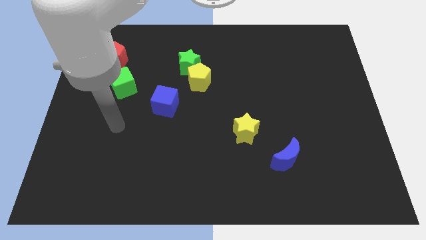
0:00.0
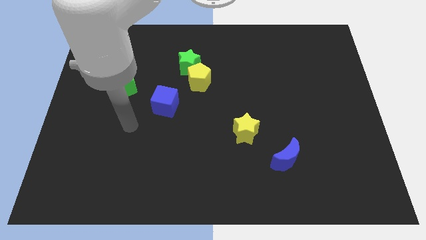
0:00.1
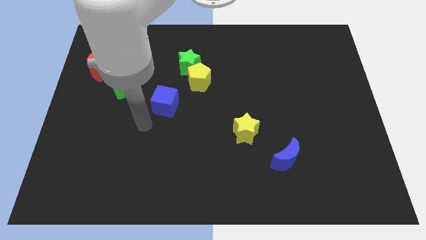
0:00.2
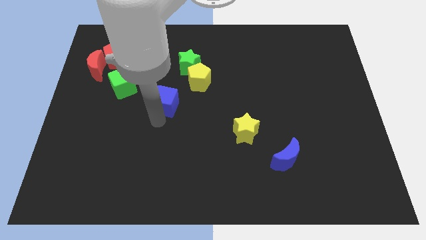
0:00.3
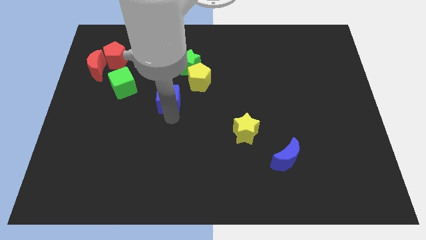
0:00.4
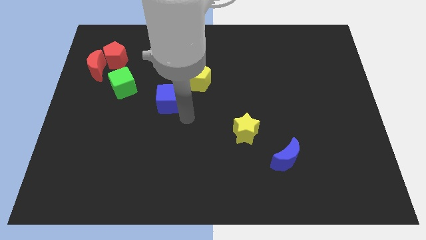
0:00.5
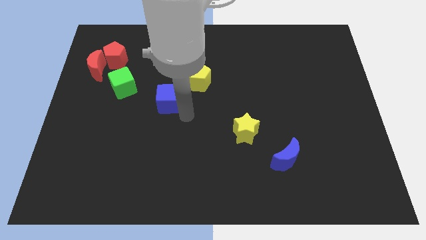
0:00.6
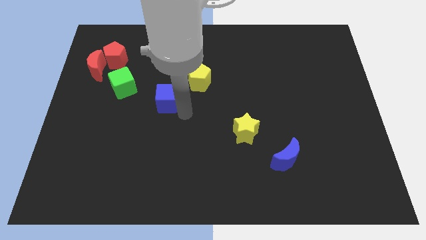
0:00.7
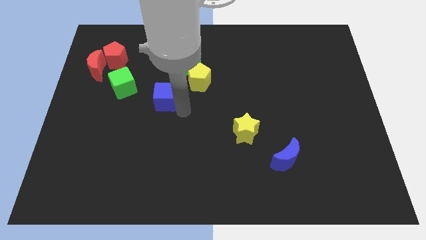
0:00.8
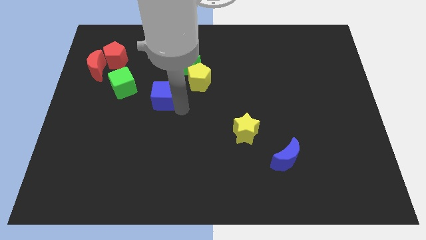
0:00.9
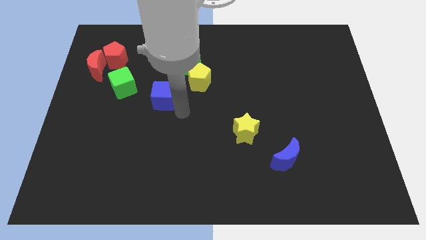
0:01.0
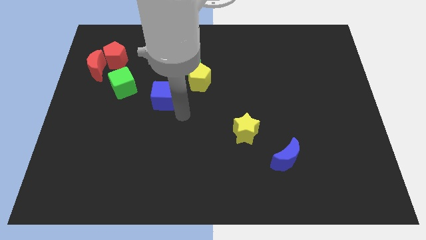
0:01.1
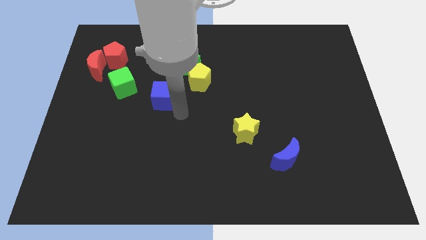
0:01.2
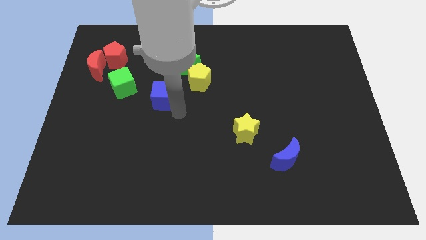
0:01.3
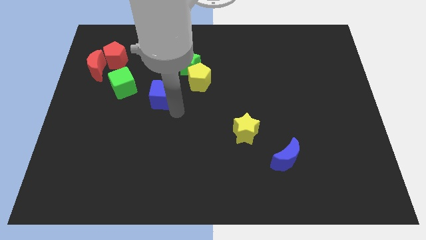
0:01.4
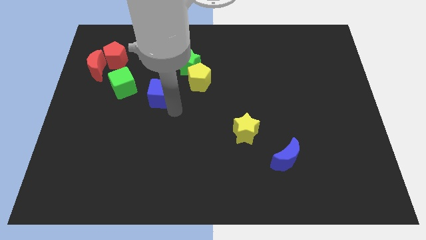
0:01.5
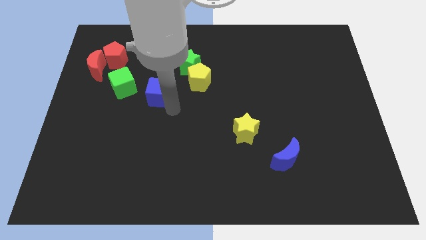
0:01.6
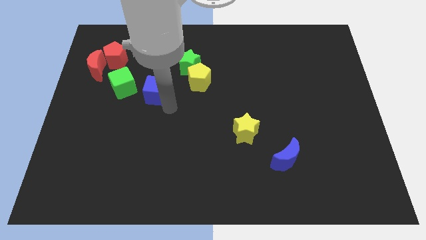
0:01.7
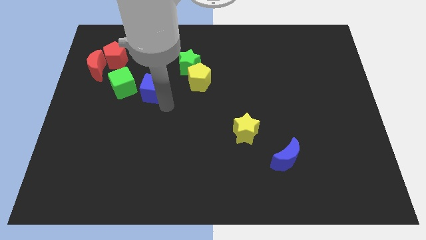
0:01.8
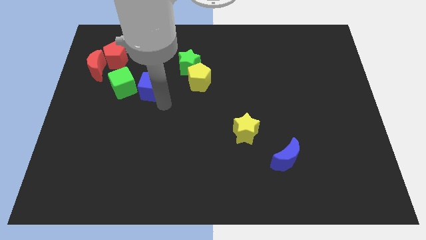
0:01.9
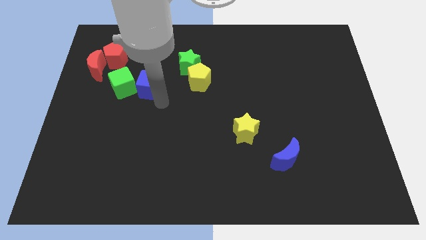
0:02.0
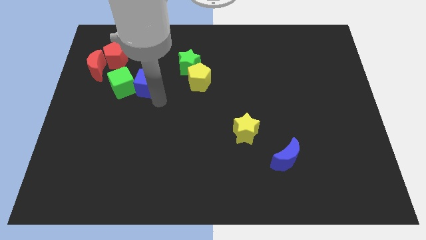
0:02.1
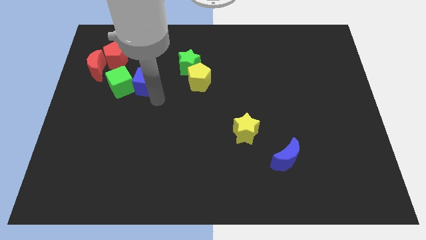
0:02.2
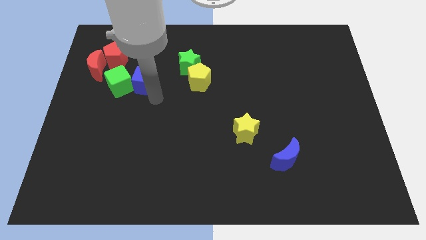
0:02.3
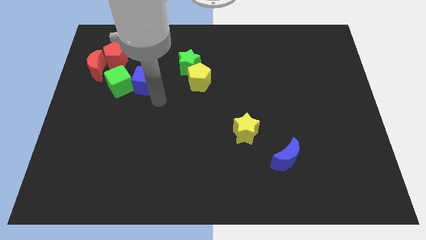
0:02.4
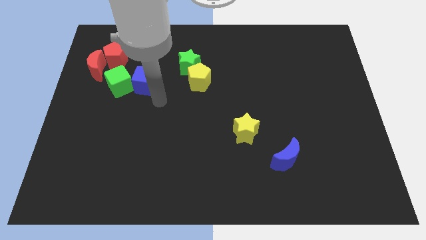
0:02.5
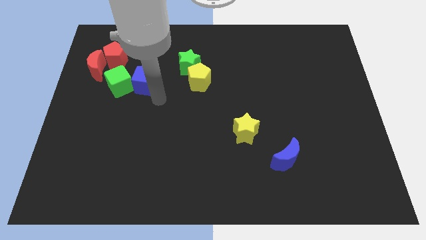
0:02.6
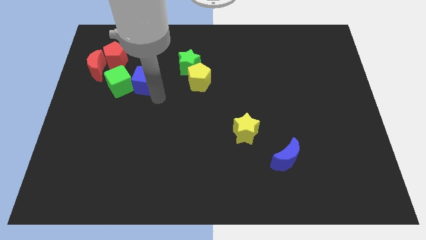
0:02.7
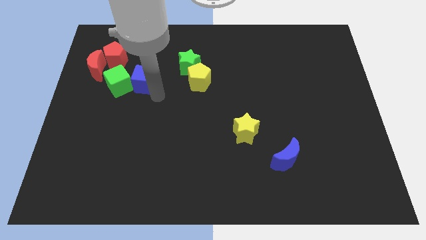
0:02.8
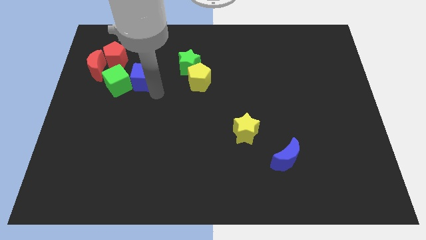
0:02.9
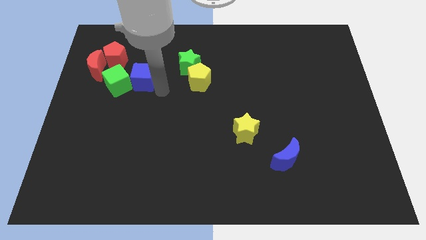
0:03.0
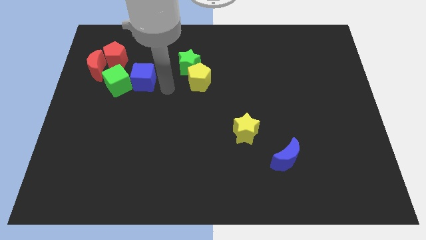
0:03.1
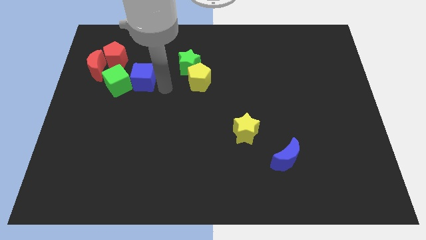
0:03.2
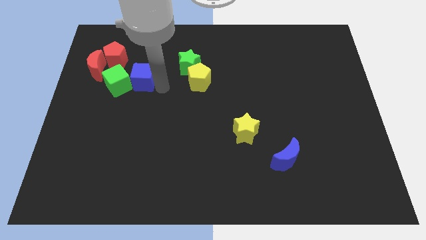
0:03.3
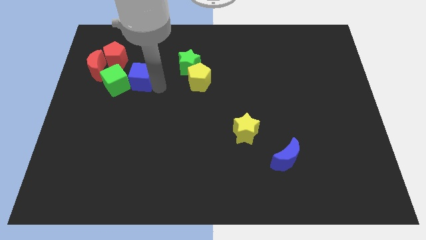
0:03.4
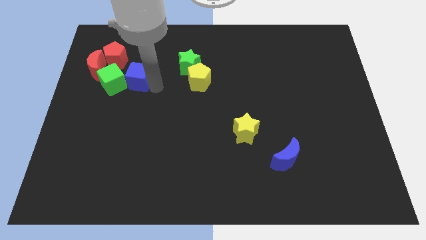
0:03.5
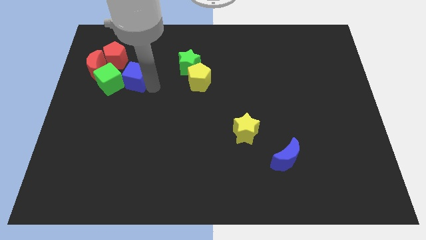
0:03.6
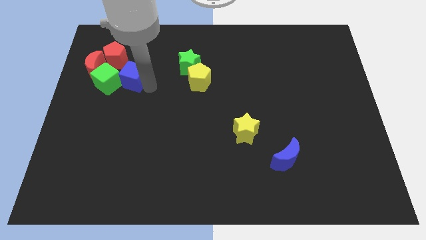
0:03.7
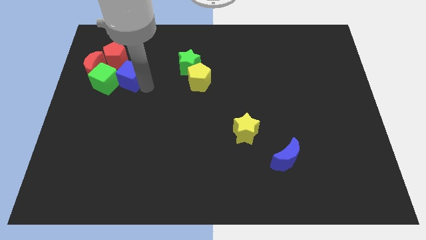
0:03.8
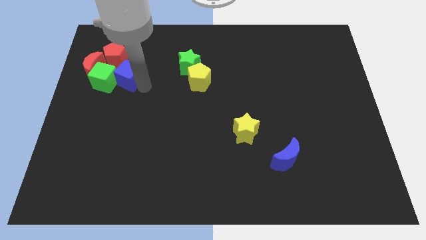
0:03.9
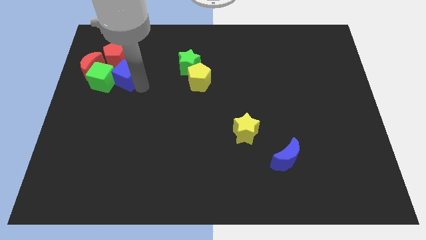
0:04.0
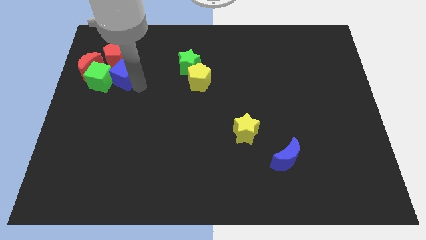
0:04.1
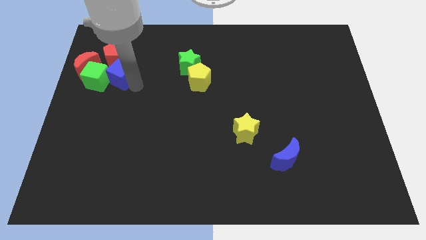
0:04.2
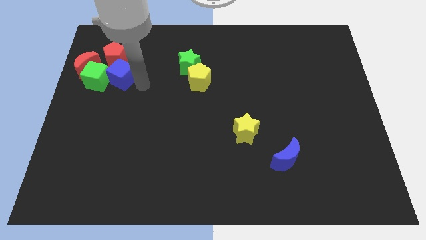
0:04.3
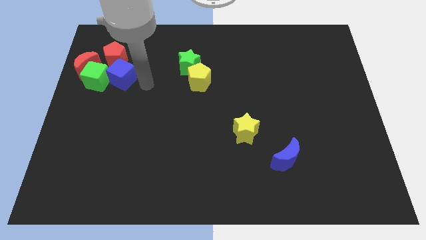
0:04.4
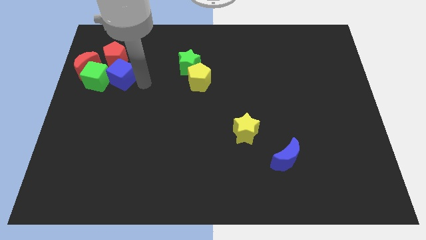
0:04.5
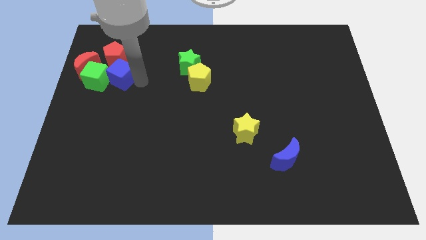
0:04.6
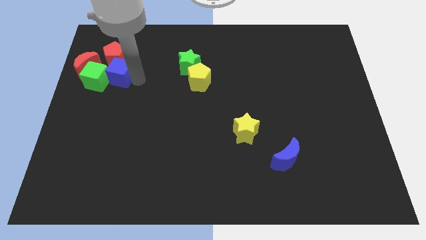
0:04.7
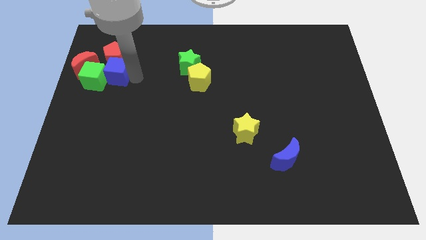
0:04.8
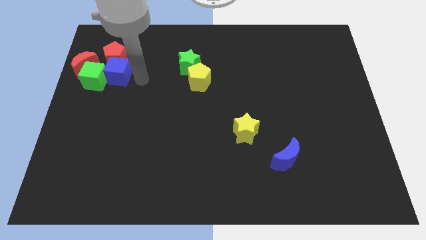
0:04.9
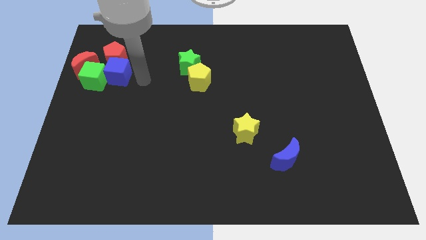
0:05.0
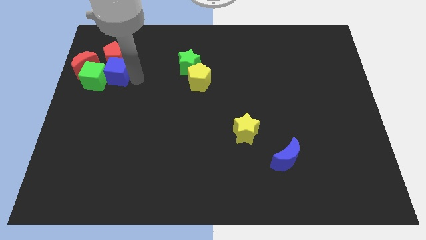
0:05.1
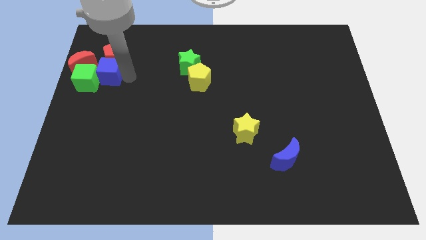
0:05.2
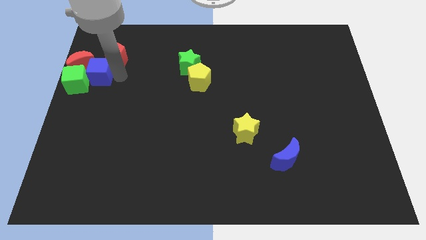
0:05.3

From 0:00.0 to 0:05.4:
put the blue cube towards the red moon

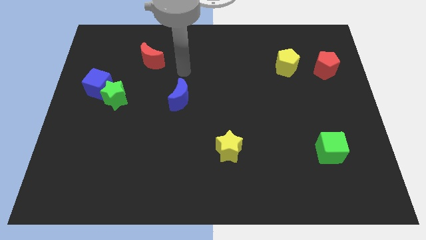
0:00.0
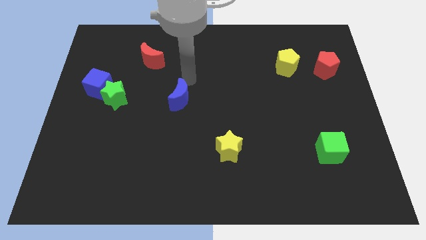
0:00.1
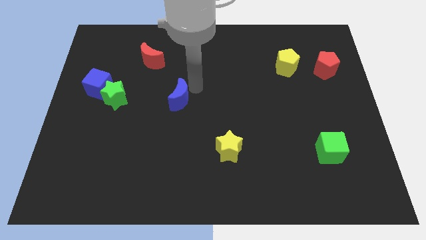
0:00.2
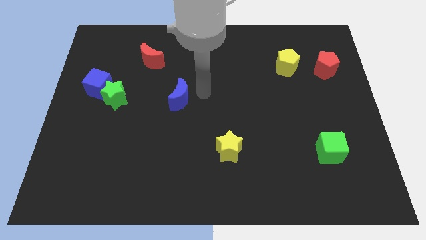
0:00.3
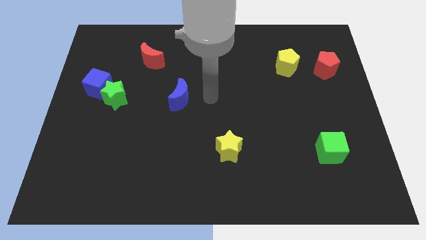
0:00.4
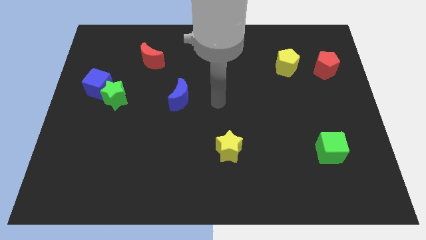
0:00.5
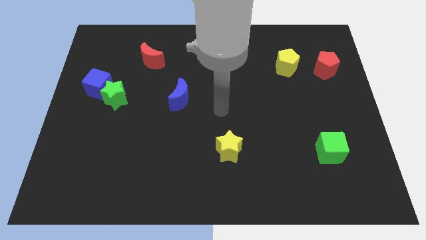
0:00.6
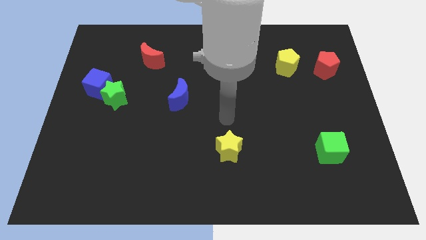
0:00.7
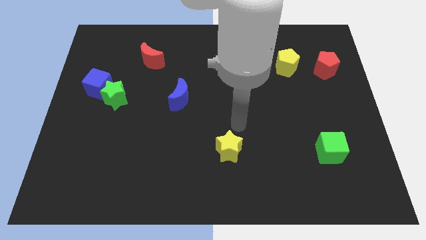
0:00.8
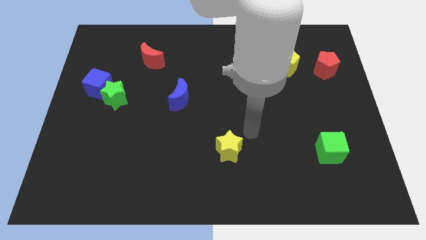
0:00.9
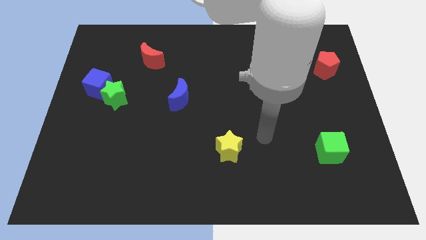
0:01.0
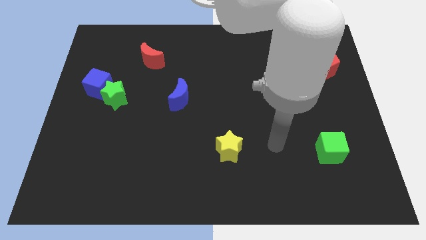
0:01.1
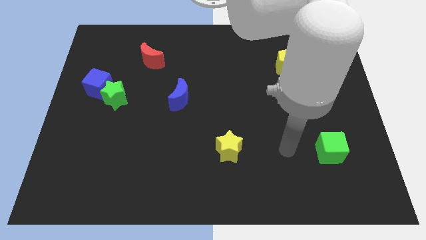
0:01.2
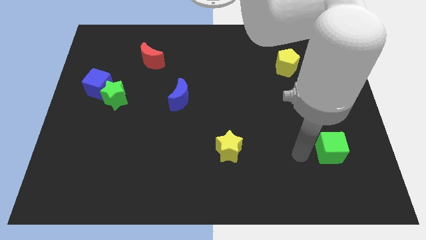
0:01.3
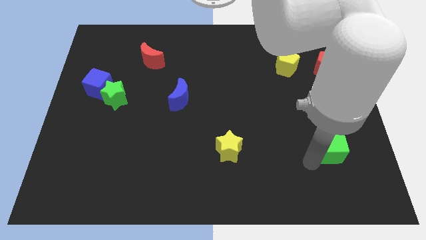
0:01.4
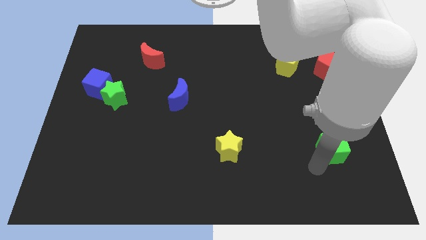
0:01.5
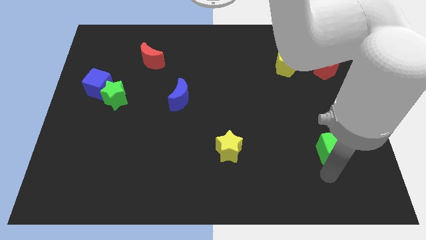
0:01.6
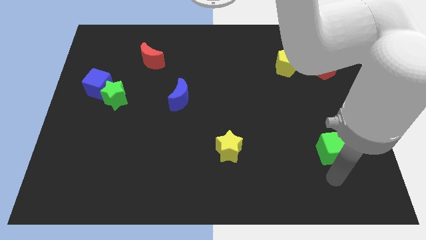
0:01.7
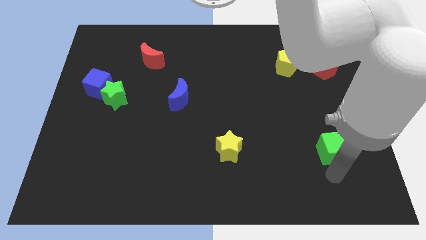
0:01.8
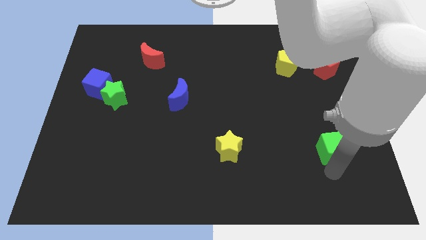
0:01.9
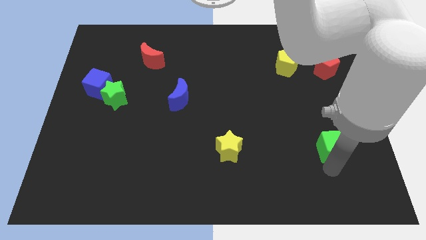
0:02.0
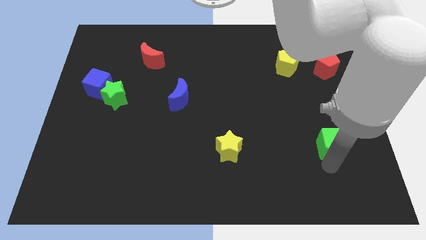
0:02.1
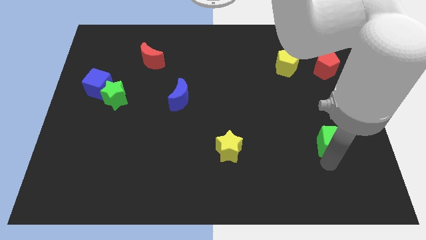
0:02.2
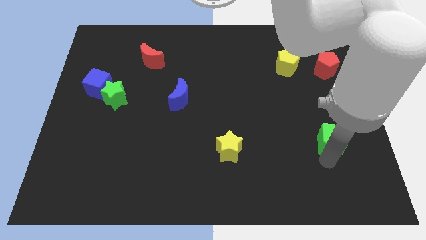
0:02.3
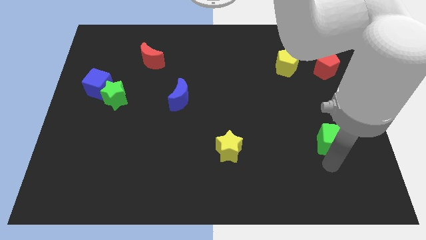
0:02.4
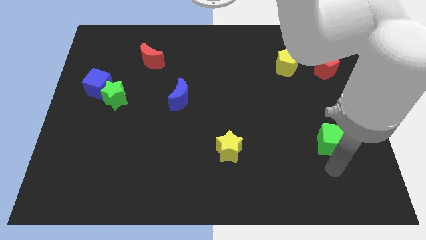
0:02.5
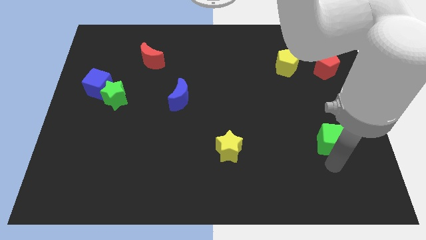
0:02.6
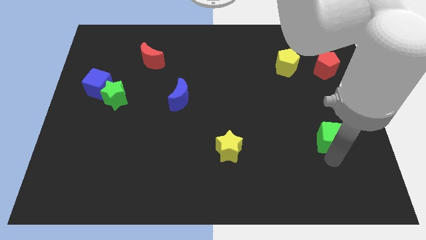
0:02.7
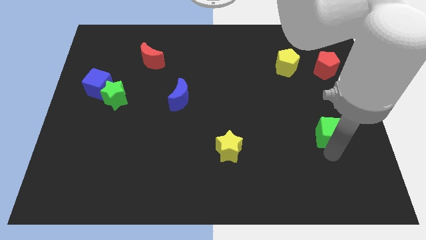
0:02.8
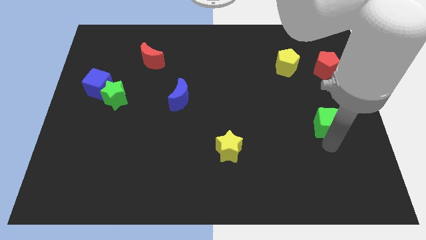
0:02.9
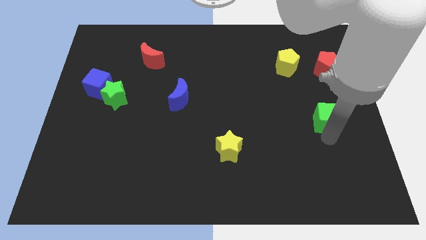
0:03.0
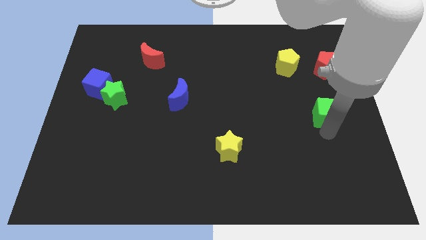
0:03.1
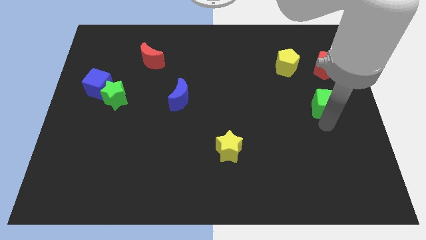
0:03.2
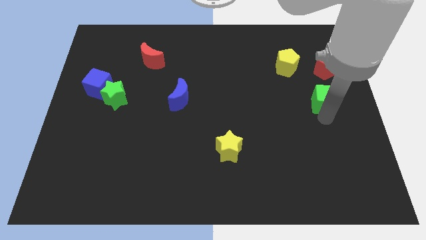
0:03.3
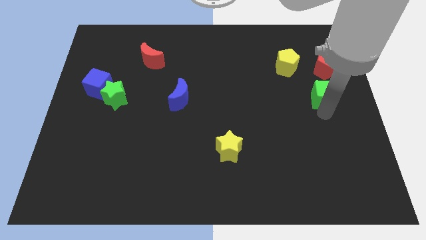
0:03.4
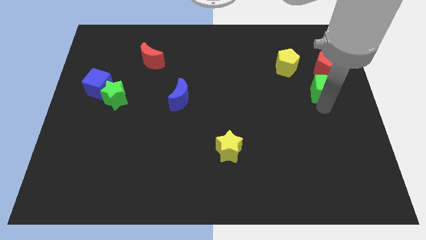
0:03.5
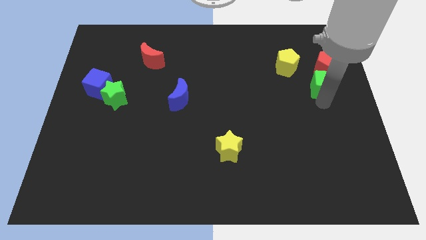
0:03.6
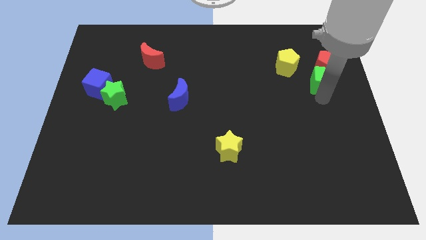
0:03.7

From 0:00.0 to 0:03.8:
move the green cube towards the red pentagon
